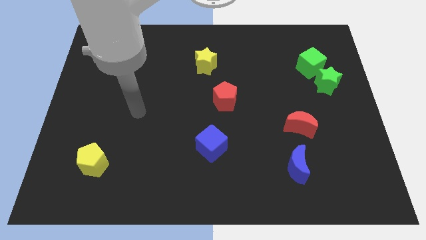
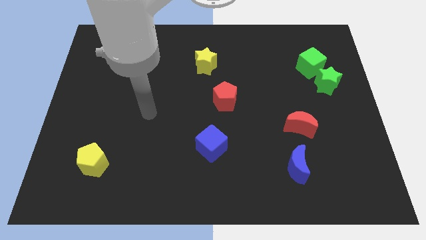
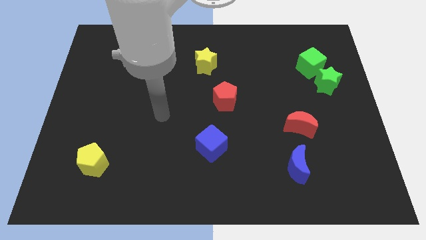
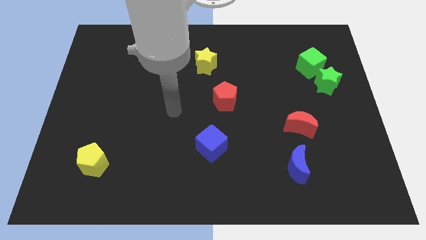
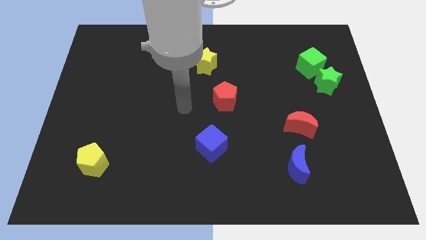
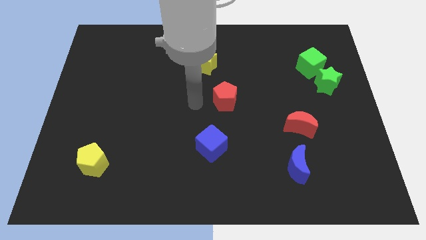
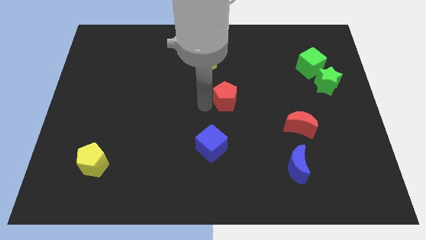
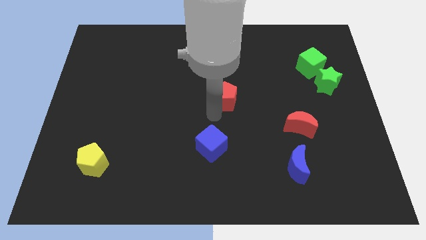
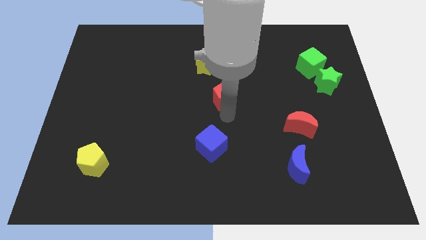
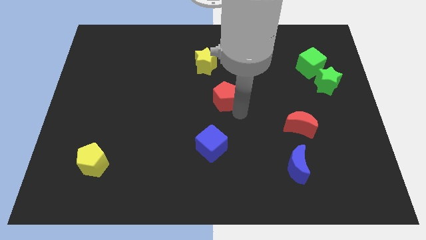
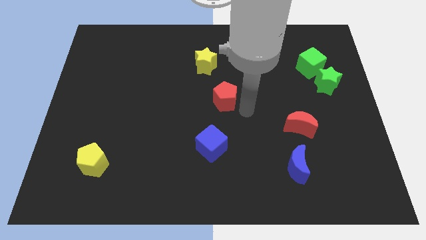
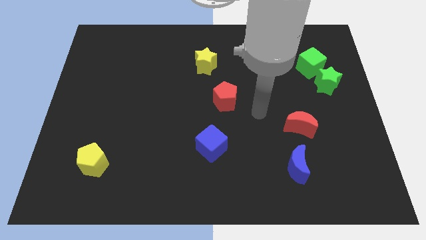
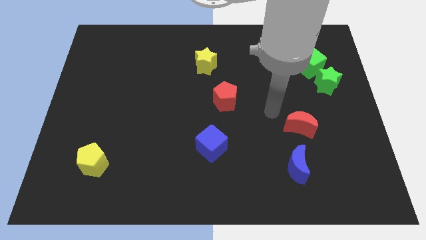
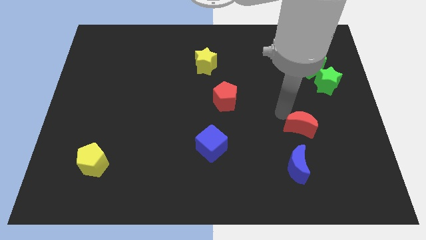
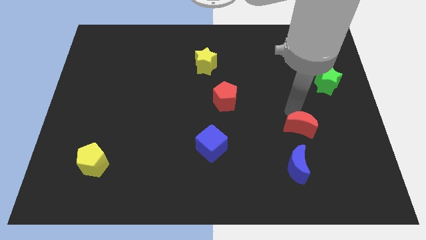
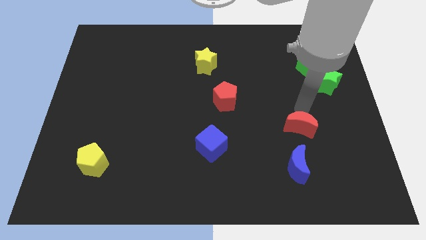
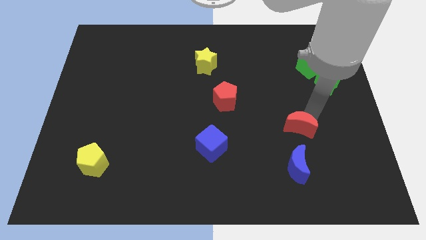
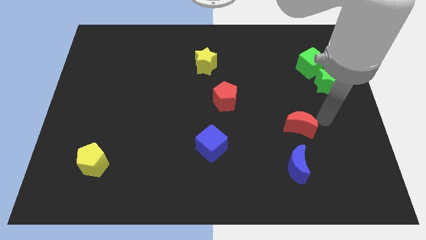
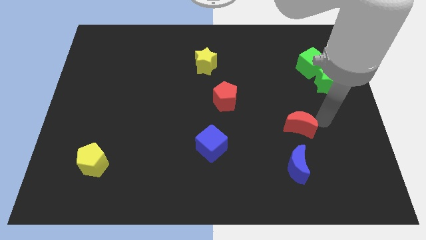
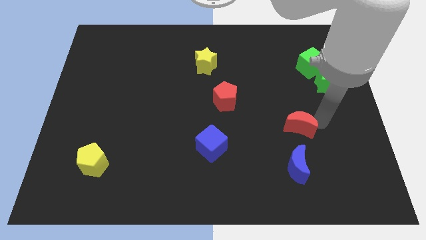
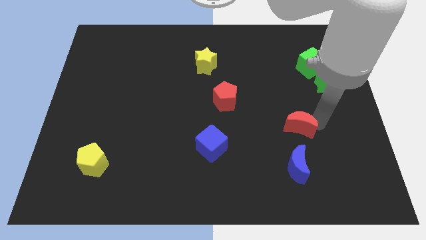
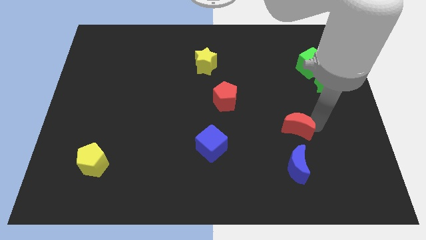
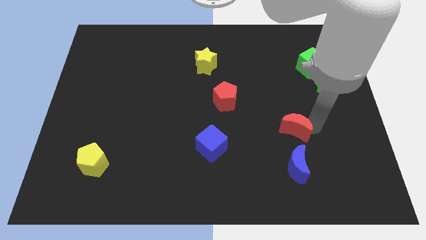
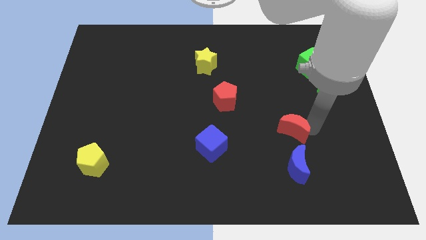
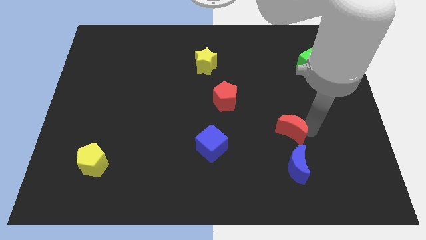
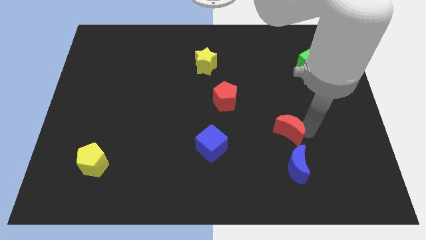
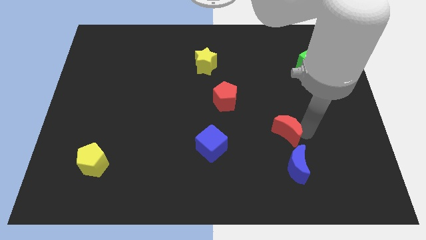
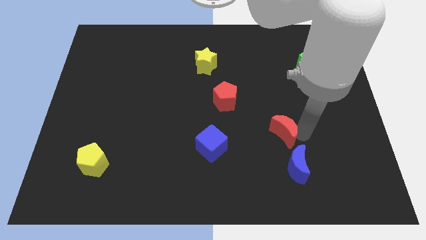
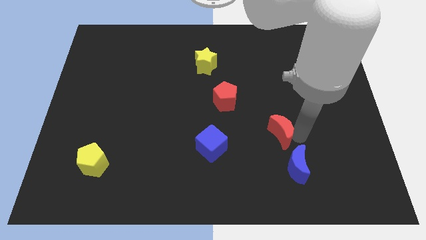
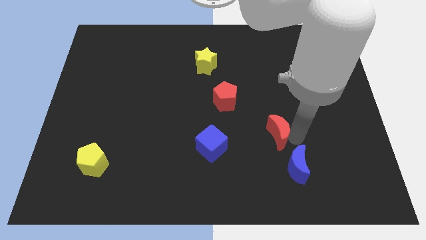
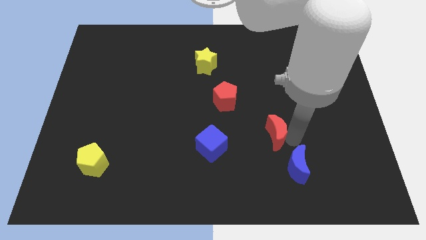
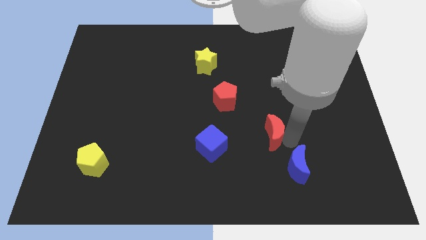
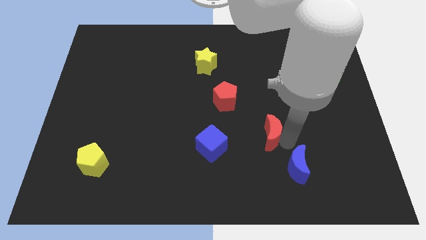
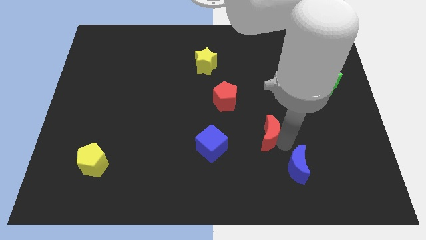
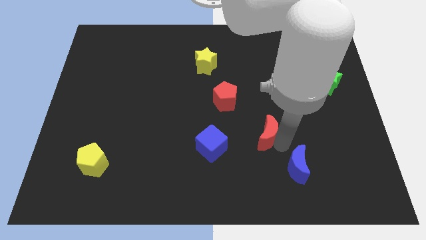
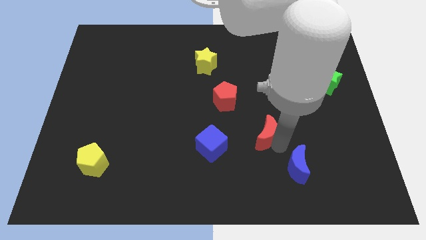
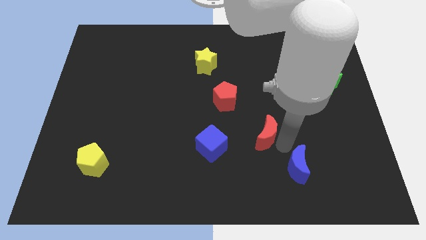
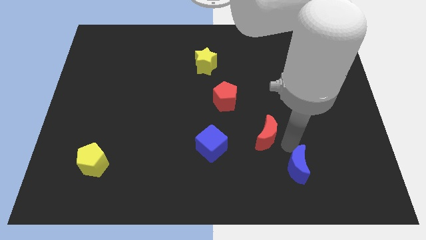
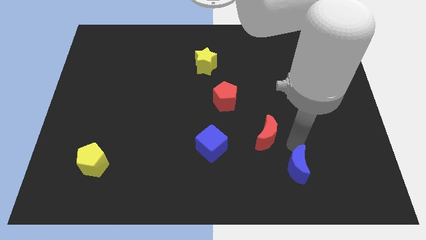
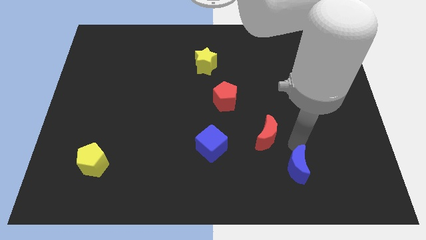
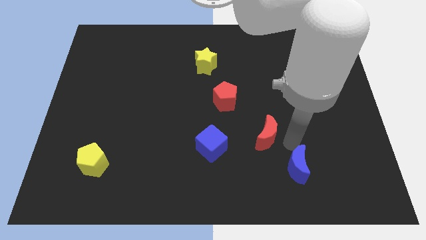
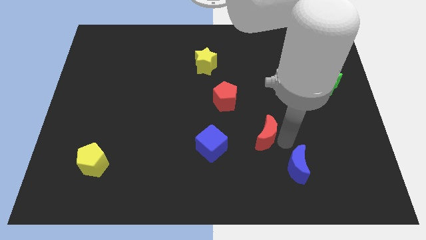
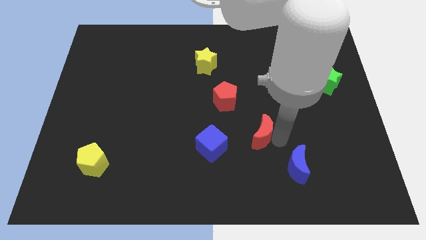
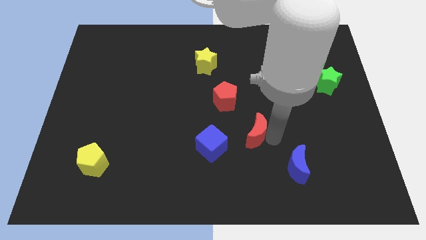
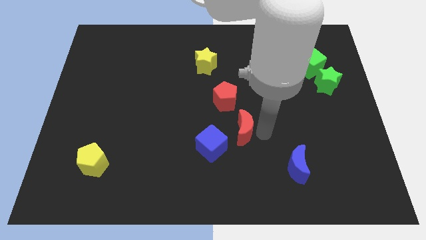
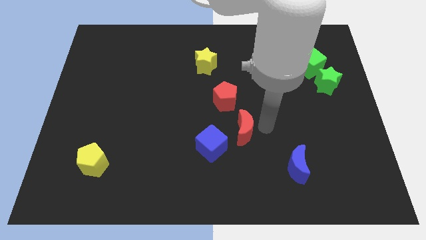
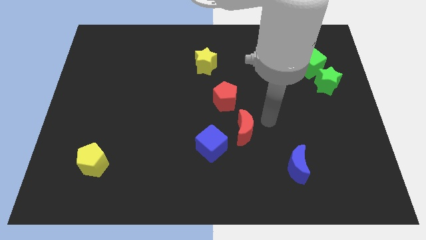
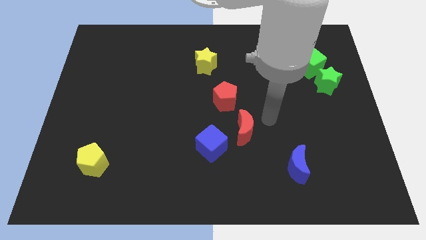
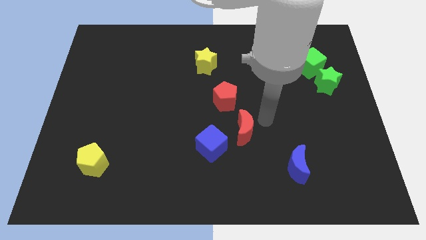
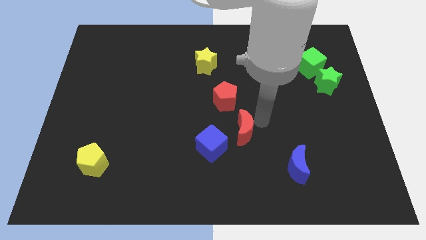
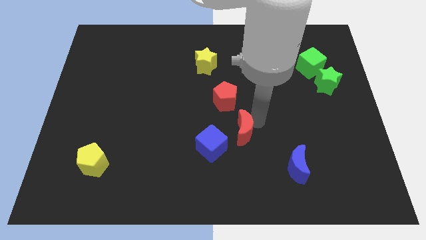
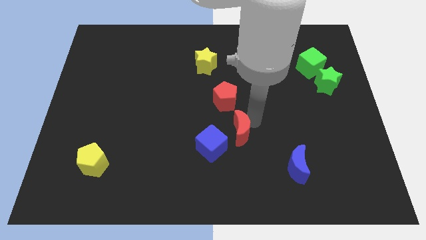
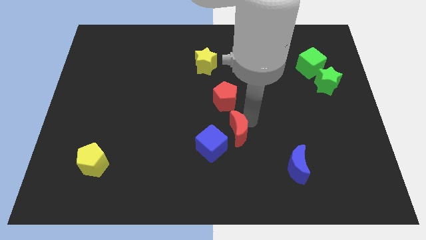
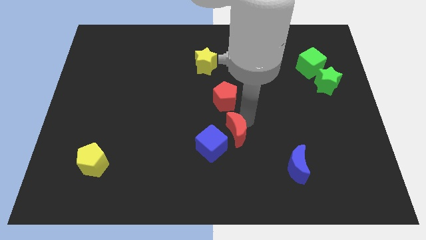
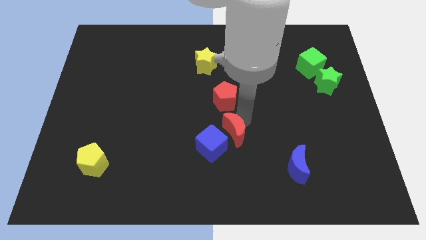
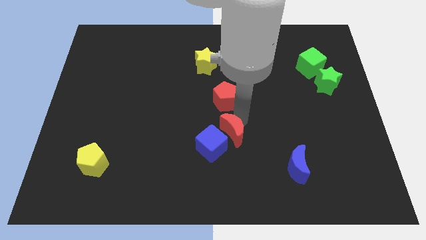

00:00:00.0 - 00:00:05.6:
push the red moon next to the blue cube
